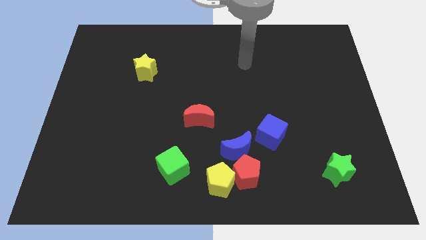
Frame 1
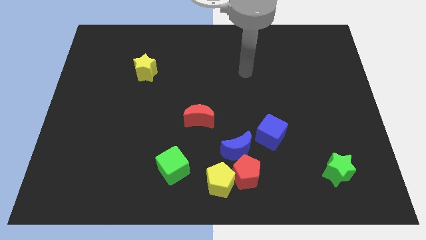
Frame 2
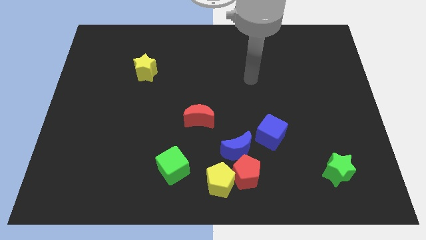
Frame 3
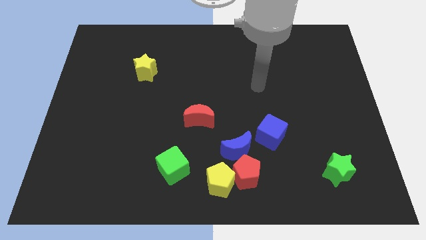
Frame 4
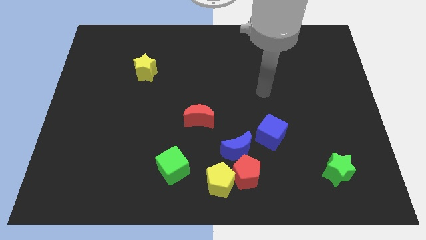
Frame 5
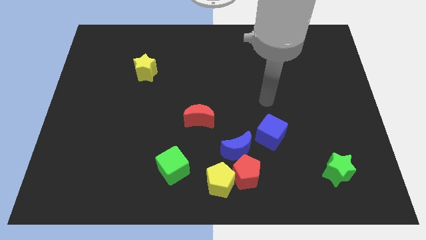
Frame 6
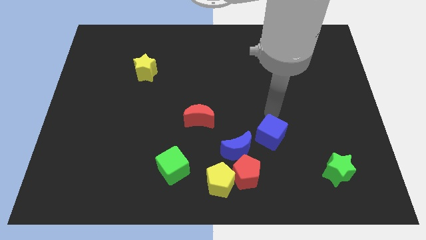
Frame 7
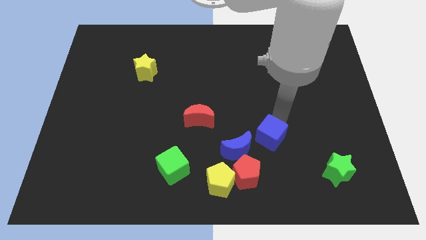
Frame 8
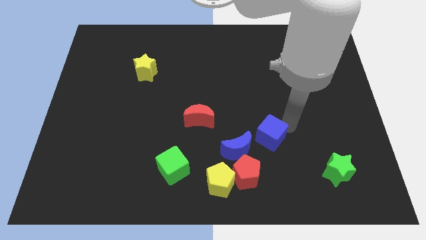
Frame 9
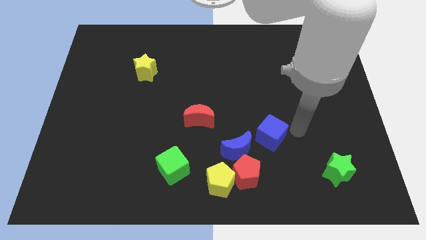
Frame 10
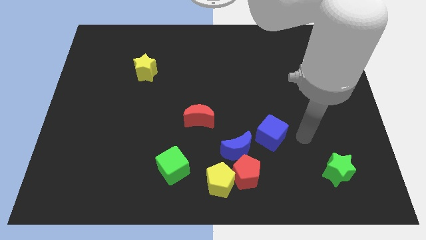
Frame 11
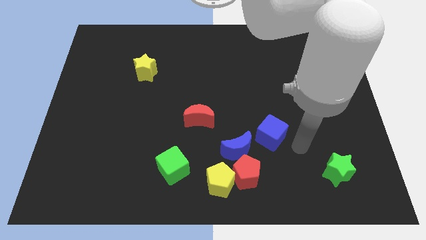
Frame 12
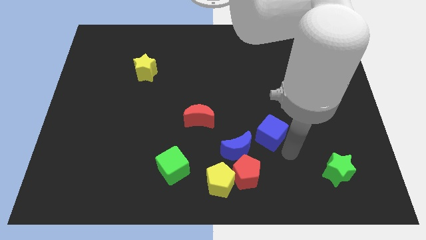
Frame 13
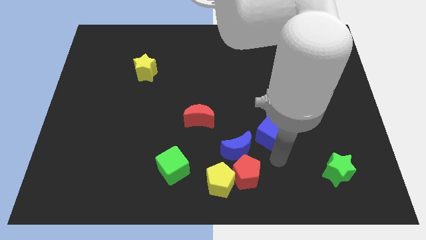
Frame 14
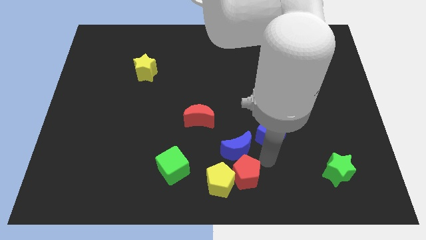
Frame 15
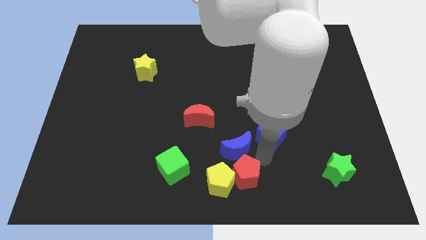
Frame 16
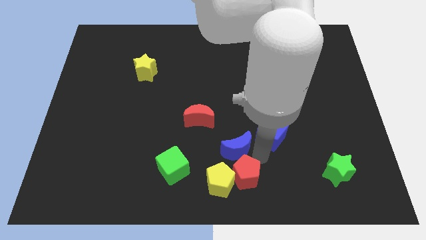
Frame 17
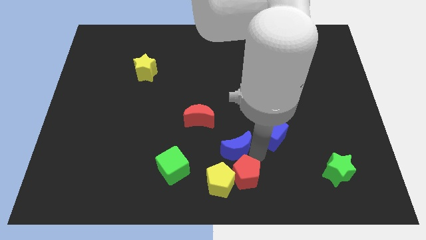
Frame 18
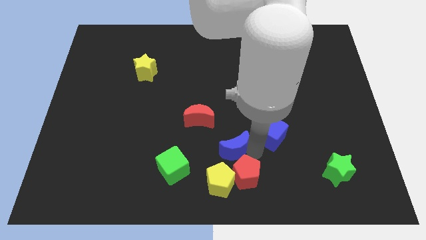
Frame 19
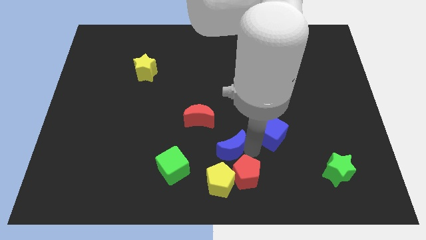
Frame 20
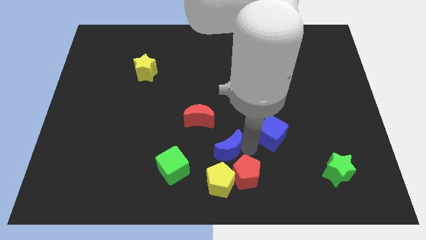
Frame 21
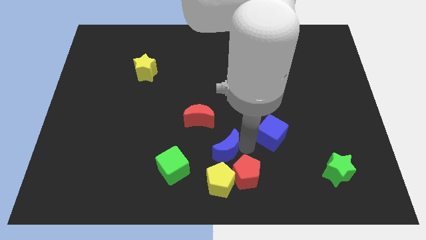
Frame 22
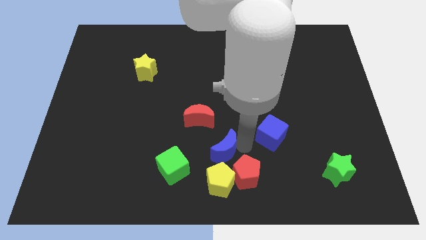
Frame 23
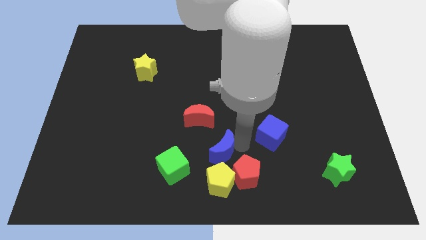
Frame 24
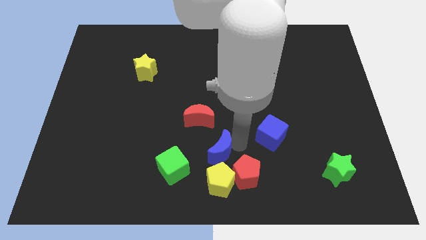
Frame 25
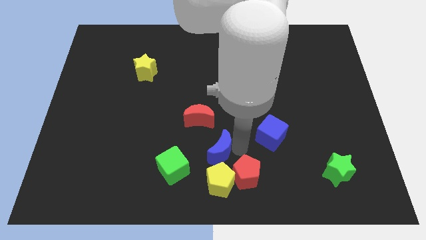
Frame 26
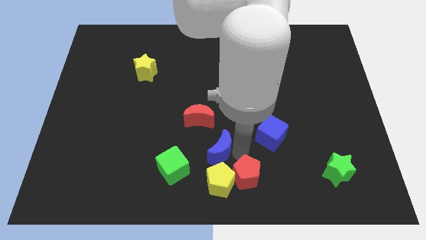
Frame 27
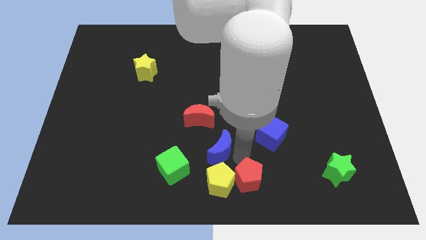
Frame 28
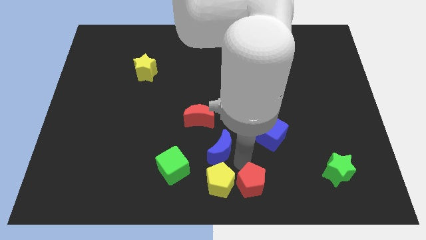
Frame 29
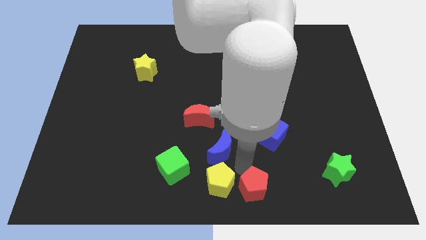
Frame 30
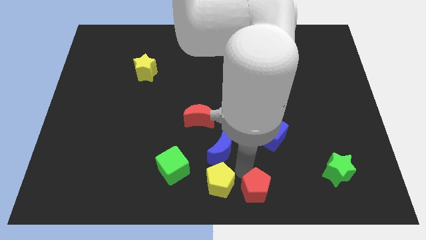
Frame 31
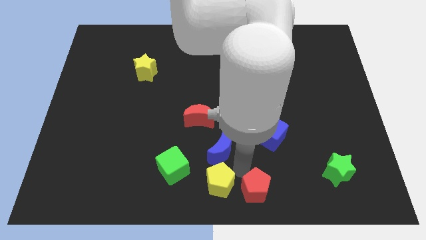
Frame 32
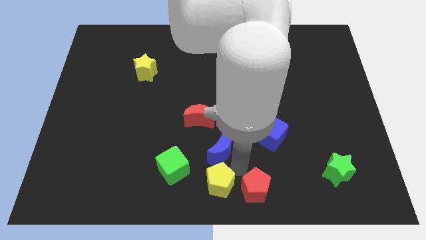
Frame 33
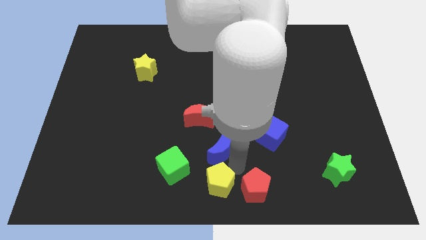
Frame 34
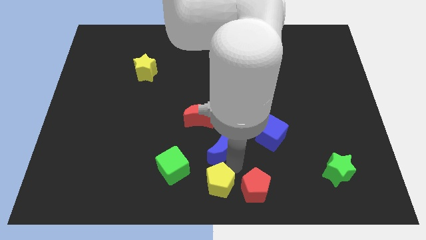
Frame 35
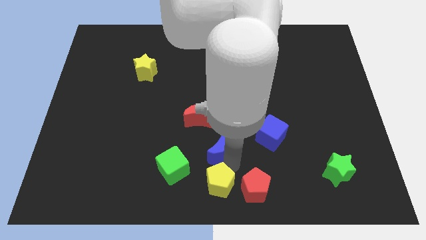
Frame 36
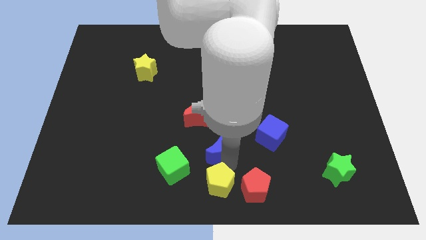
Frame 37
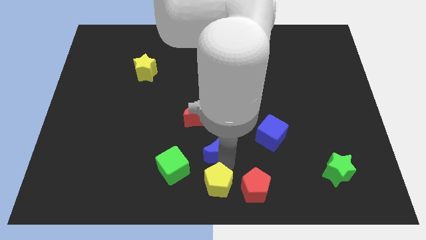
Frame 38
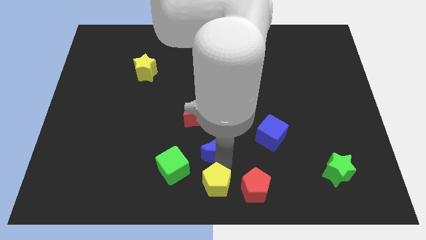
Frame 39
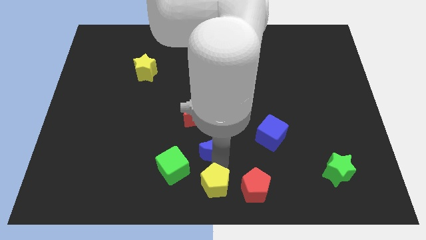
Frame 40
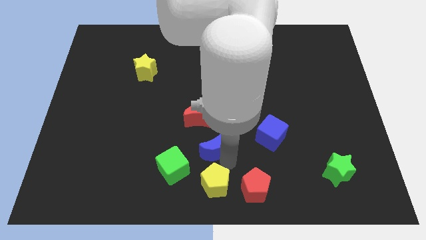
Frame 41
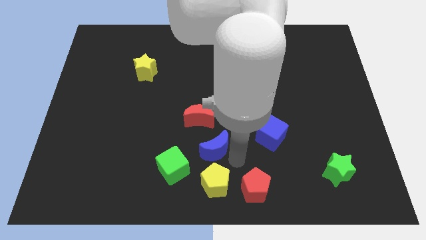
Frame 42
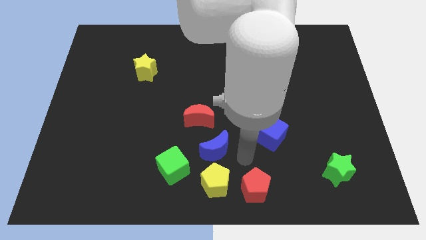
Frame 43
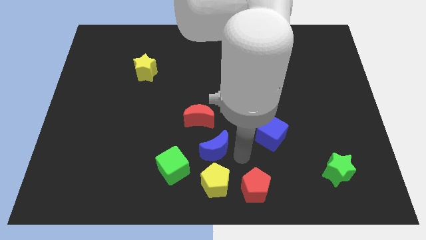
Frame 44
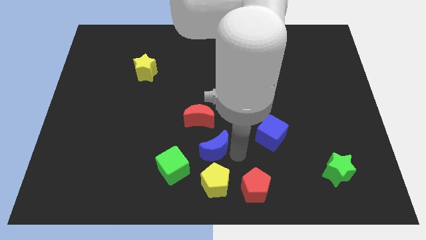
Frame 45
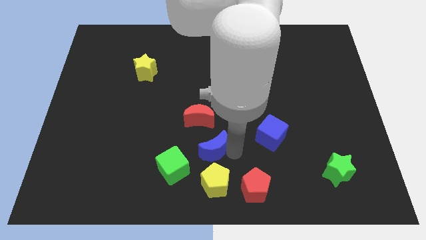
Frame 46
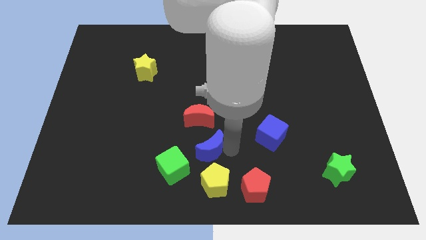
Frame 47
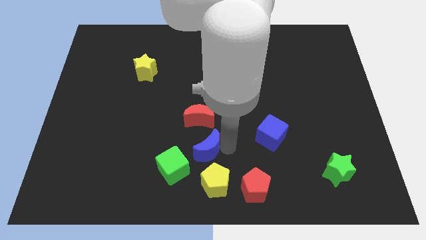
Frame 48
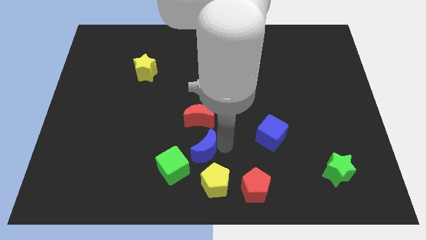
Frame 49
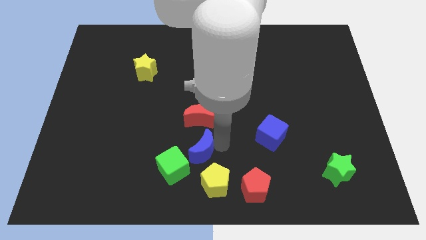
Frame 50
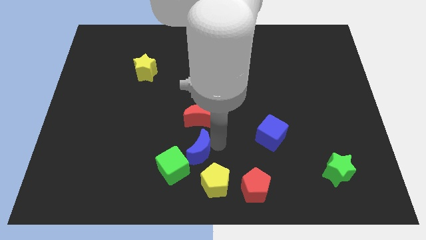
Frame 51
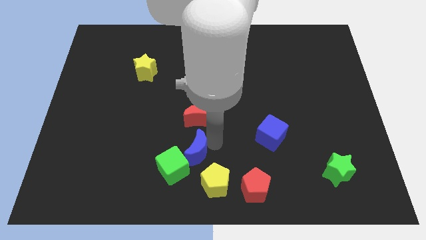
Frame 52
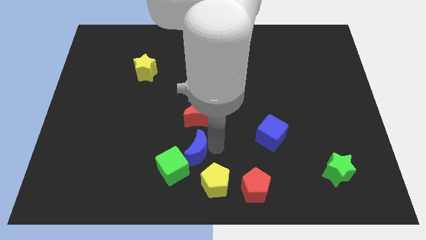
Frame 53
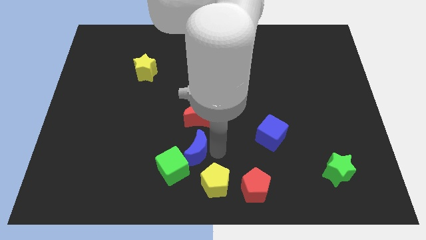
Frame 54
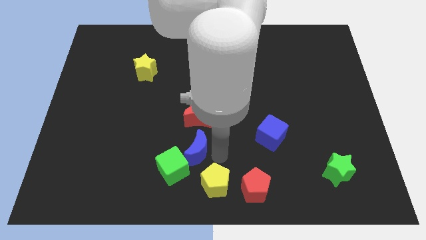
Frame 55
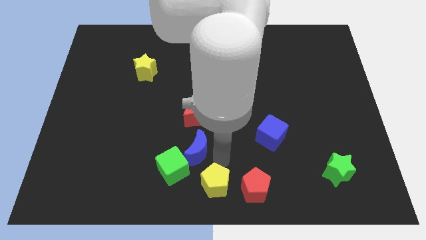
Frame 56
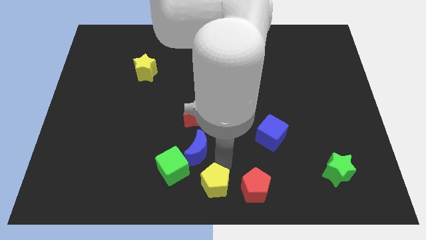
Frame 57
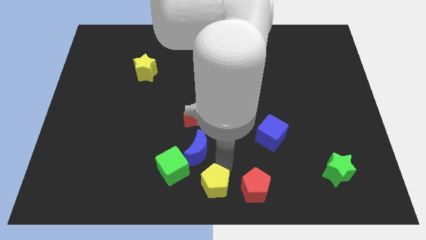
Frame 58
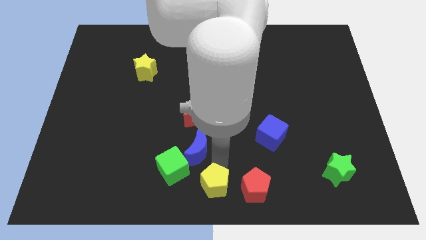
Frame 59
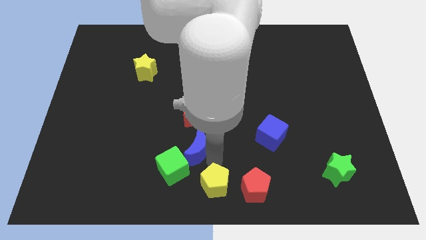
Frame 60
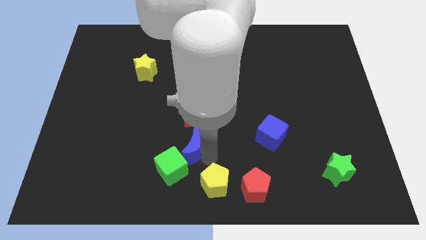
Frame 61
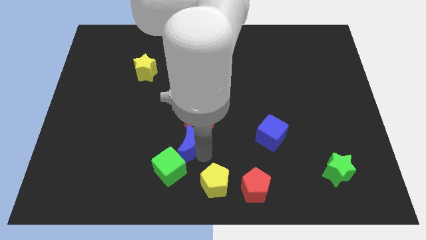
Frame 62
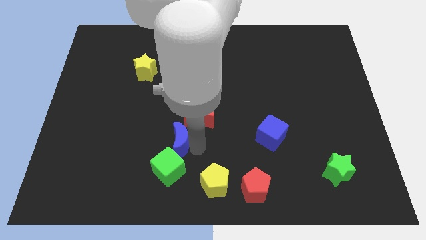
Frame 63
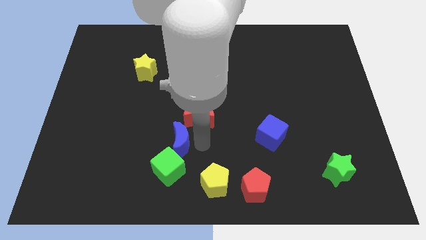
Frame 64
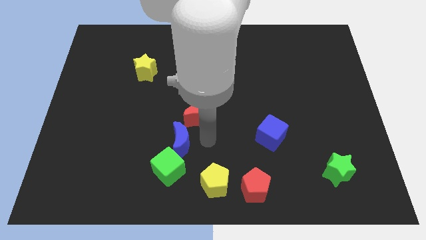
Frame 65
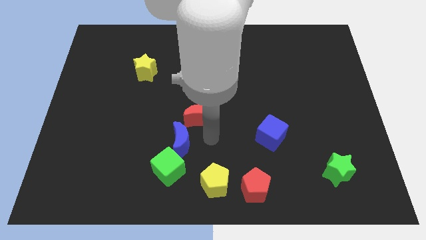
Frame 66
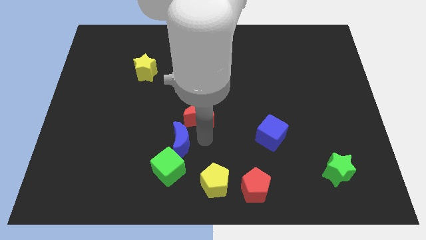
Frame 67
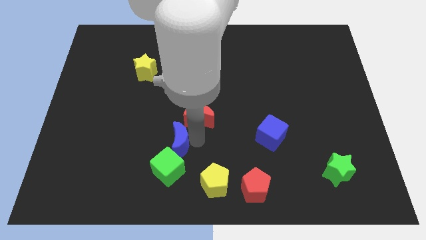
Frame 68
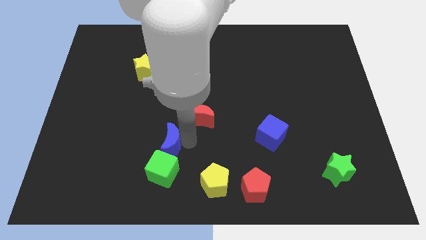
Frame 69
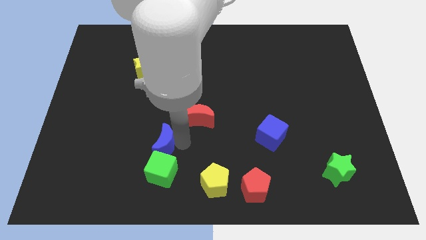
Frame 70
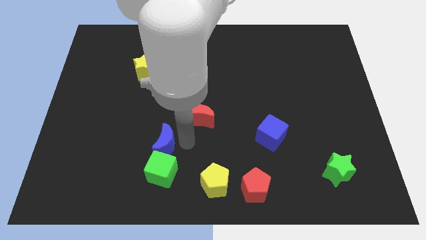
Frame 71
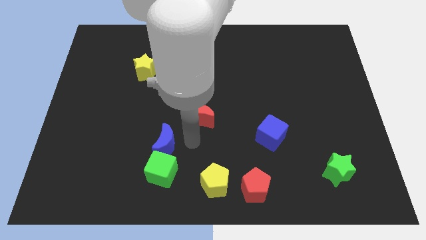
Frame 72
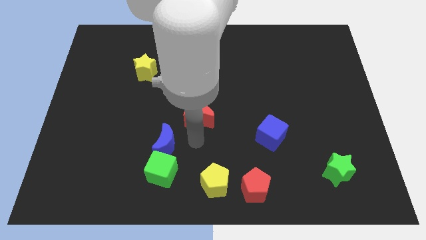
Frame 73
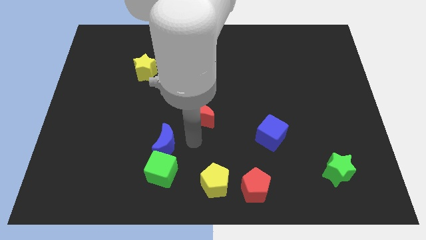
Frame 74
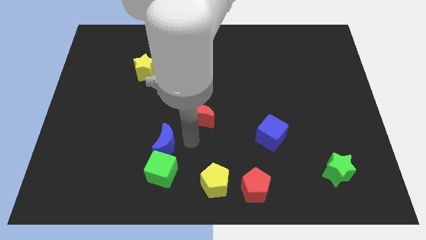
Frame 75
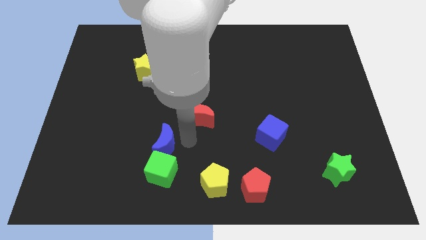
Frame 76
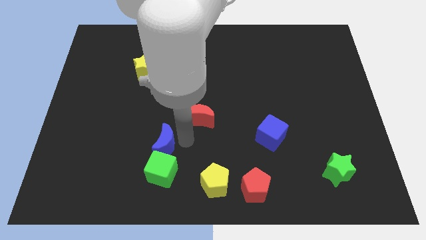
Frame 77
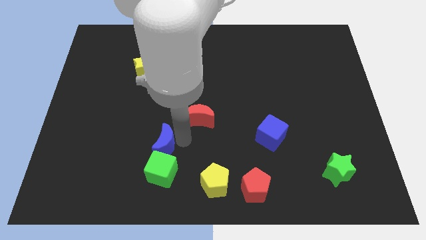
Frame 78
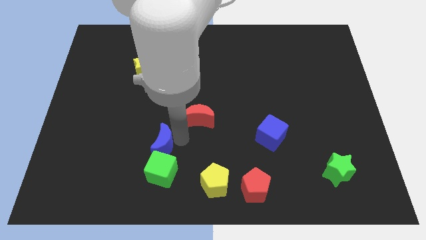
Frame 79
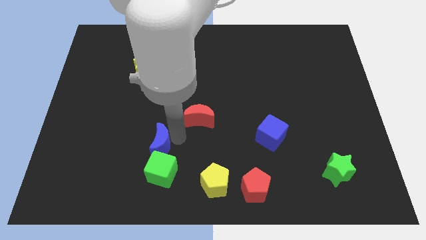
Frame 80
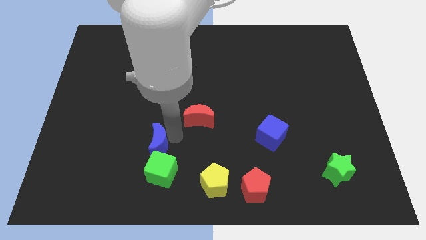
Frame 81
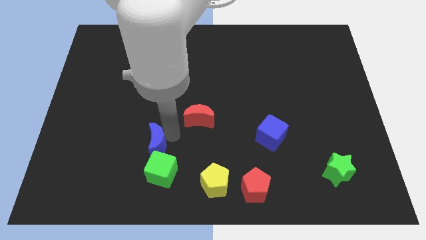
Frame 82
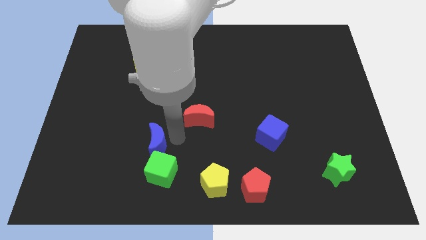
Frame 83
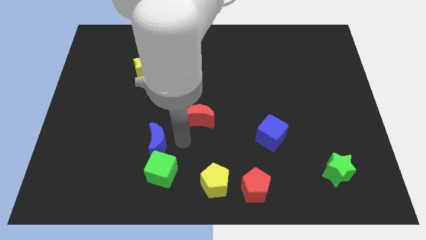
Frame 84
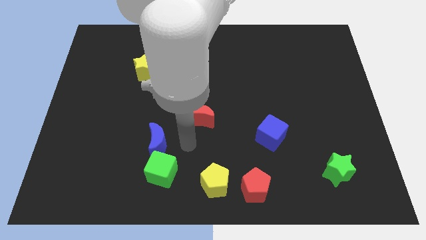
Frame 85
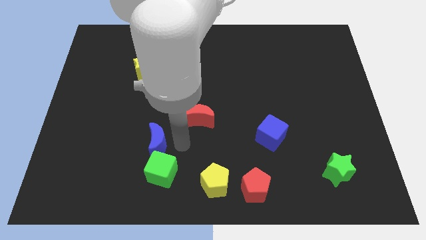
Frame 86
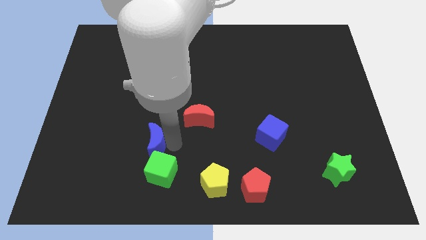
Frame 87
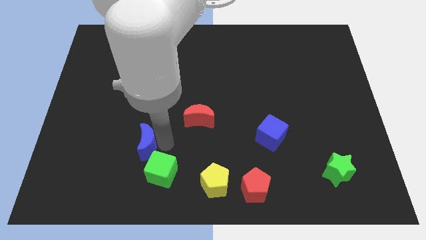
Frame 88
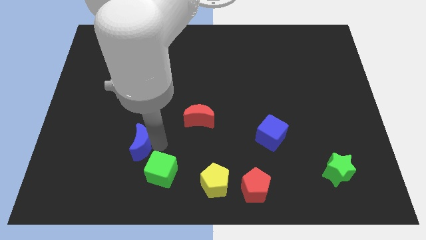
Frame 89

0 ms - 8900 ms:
move the blue moon left
